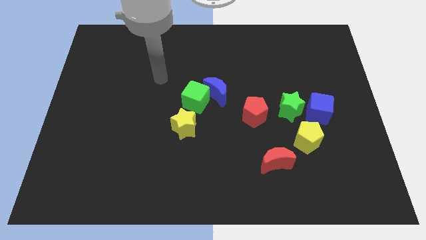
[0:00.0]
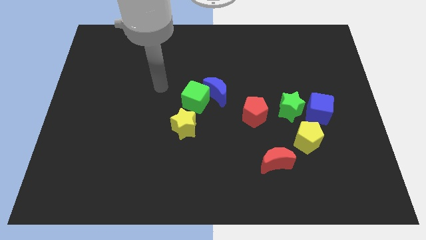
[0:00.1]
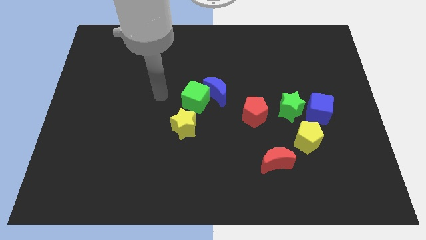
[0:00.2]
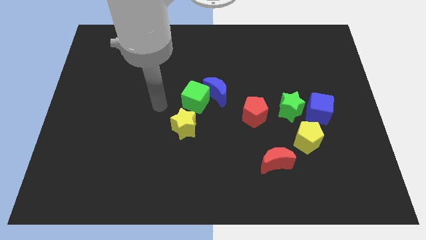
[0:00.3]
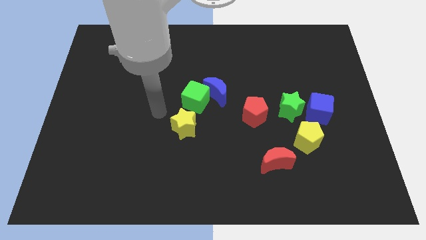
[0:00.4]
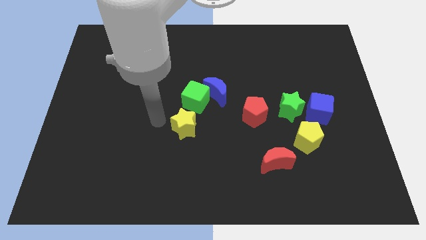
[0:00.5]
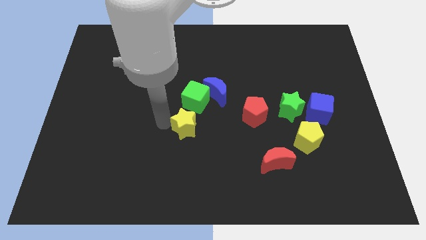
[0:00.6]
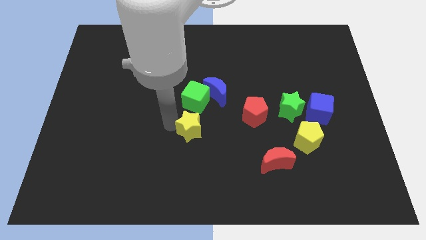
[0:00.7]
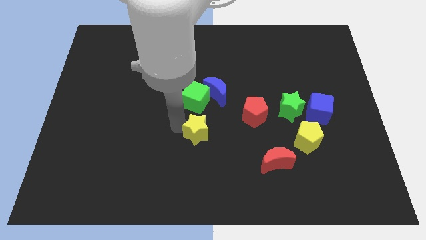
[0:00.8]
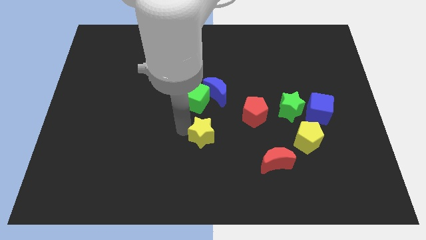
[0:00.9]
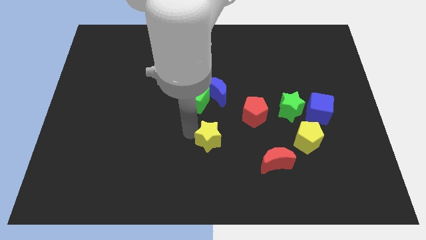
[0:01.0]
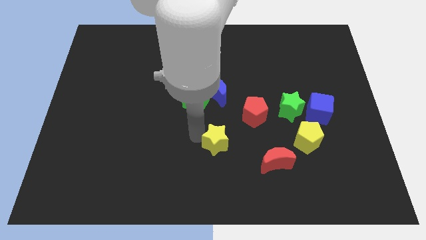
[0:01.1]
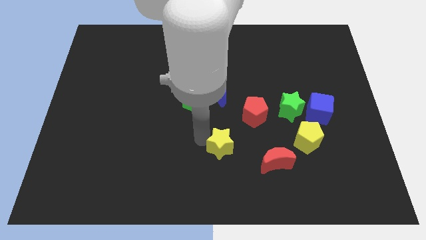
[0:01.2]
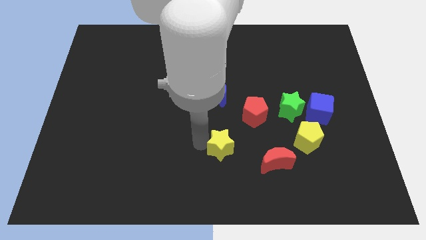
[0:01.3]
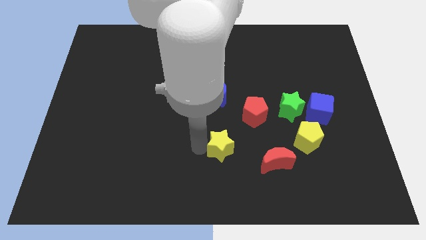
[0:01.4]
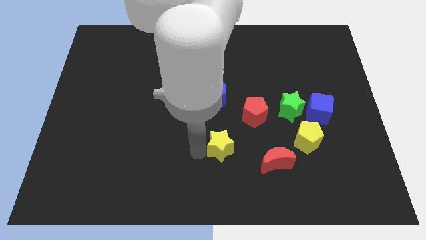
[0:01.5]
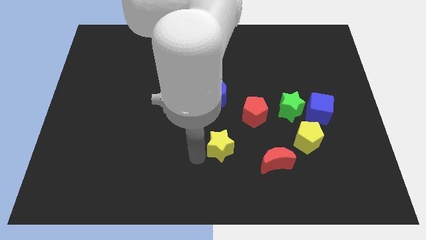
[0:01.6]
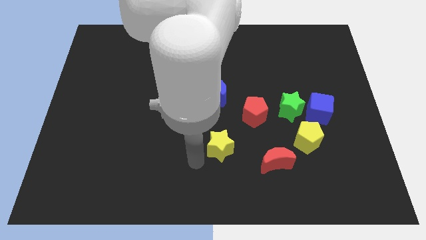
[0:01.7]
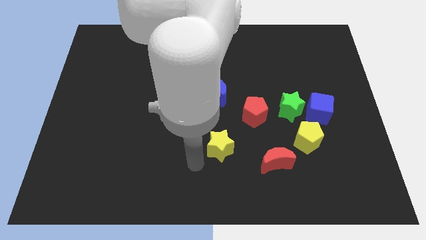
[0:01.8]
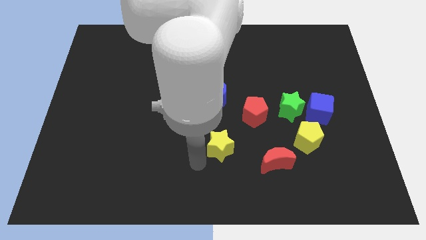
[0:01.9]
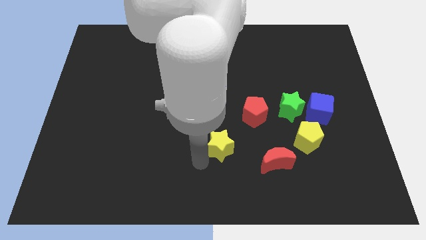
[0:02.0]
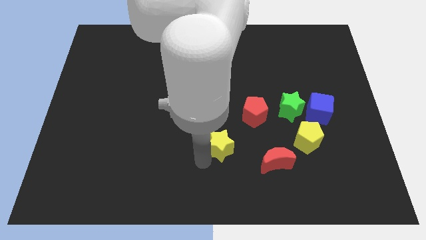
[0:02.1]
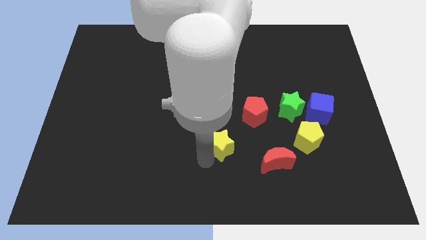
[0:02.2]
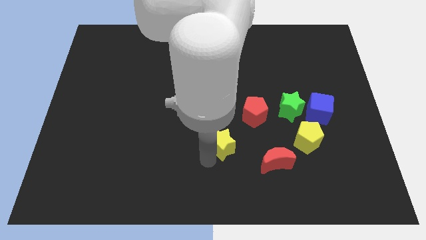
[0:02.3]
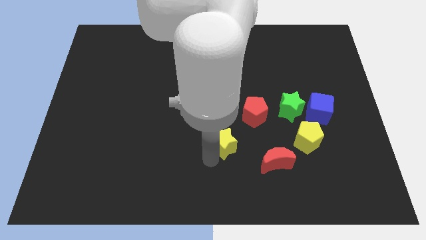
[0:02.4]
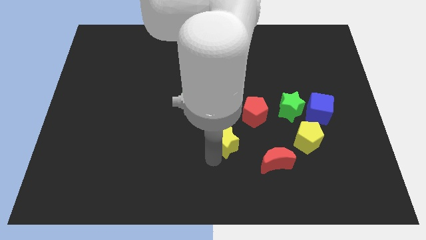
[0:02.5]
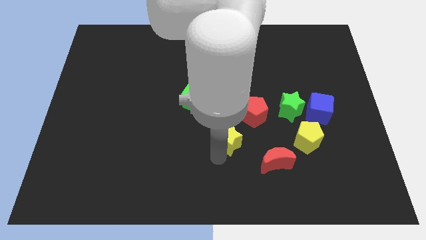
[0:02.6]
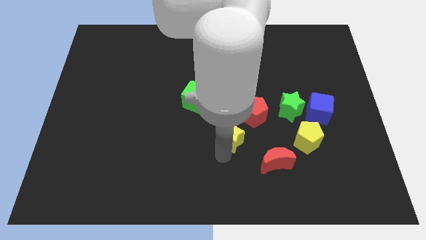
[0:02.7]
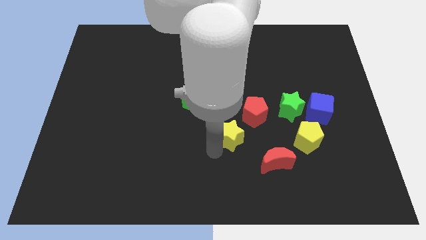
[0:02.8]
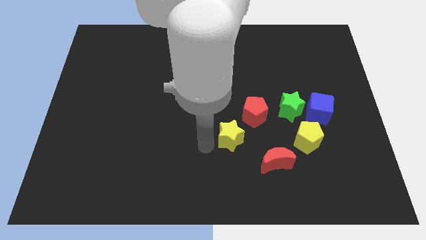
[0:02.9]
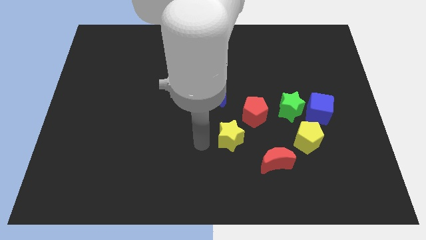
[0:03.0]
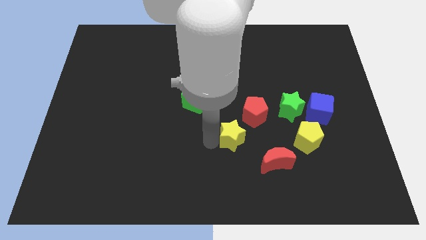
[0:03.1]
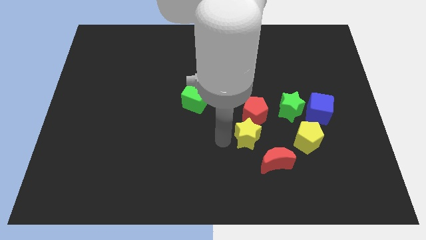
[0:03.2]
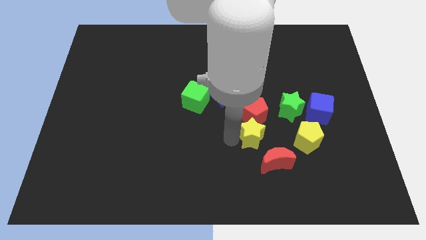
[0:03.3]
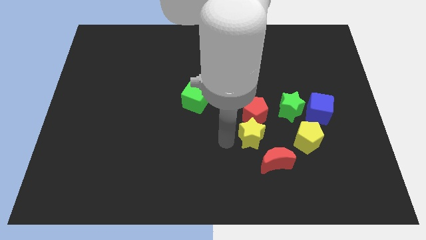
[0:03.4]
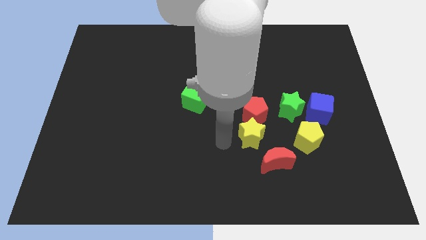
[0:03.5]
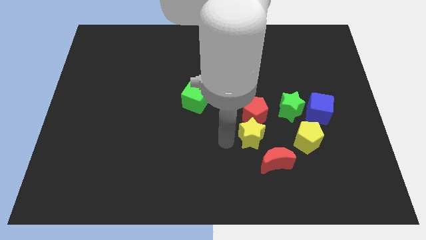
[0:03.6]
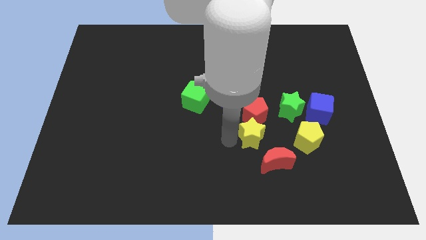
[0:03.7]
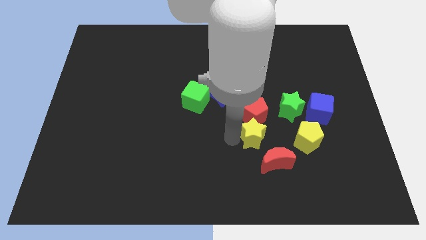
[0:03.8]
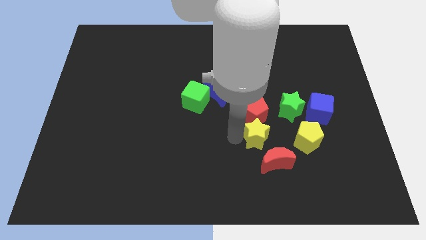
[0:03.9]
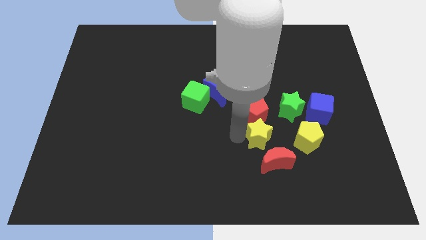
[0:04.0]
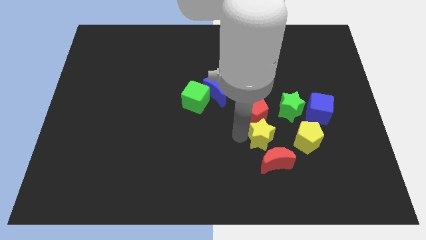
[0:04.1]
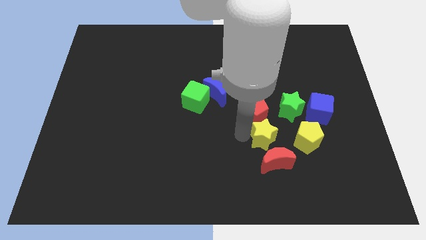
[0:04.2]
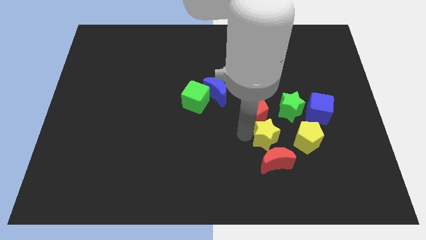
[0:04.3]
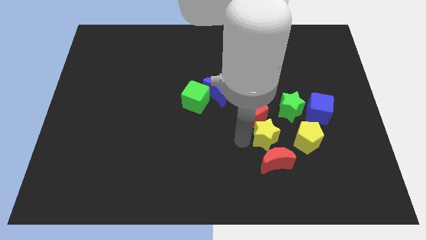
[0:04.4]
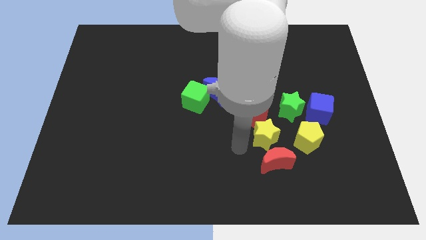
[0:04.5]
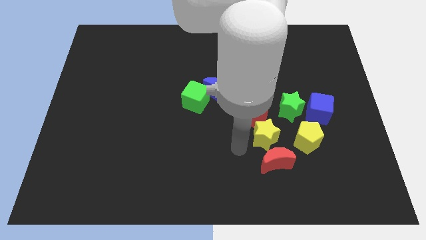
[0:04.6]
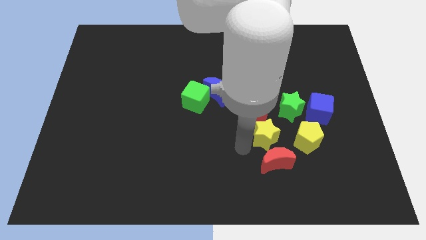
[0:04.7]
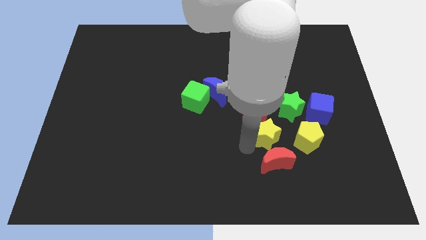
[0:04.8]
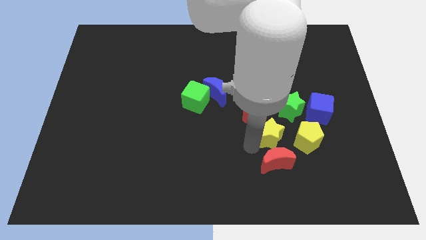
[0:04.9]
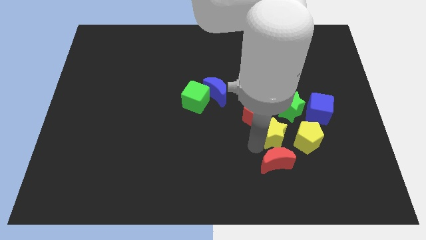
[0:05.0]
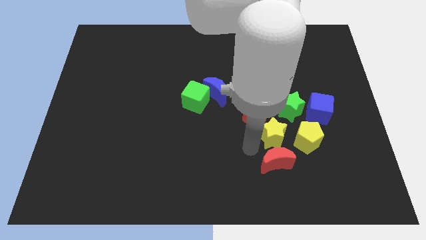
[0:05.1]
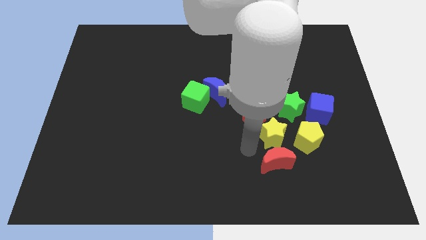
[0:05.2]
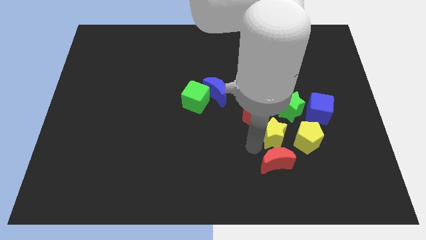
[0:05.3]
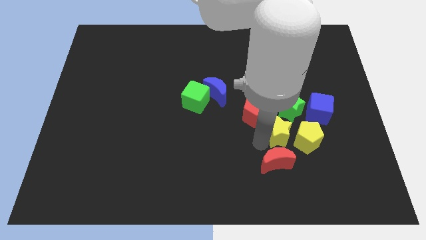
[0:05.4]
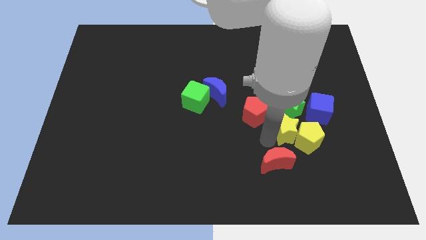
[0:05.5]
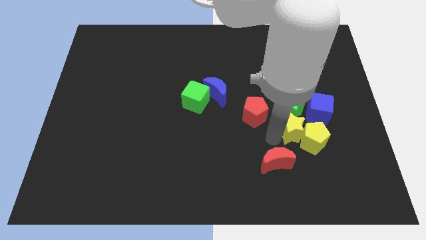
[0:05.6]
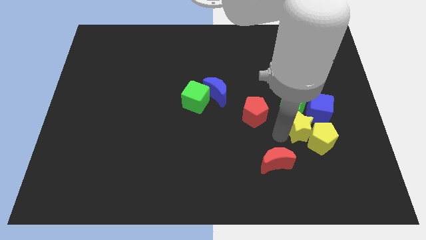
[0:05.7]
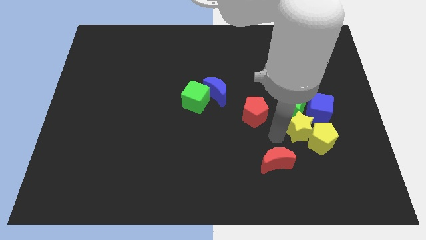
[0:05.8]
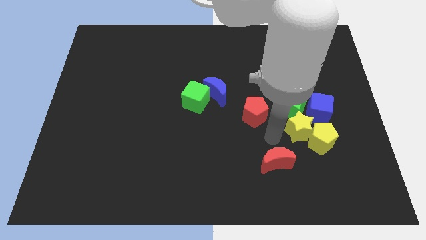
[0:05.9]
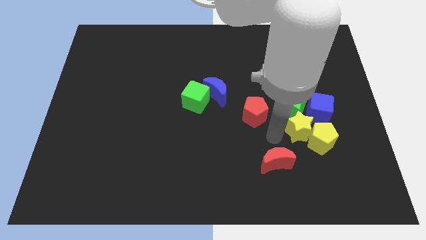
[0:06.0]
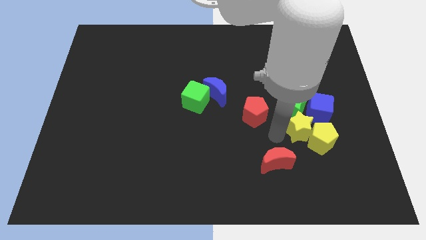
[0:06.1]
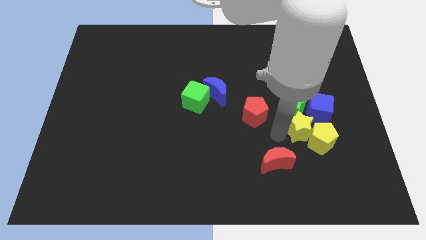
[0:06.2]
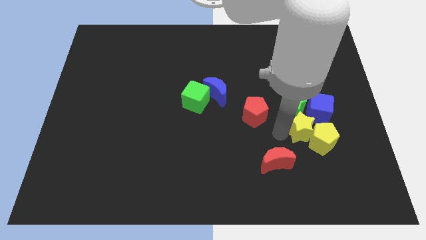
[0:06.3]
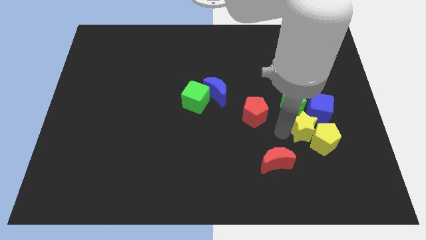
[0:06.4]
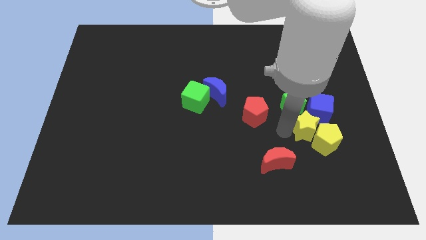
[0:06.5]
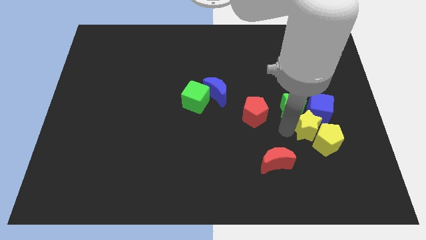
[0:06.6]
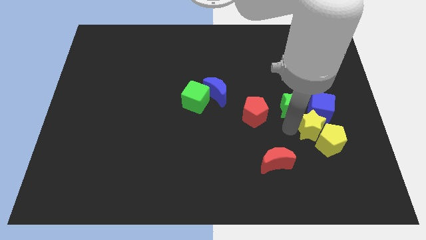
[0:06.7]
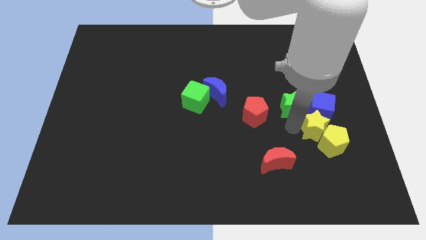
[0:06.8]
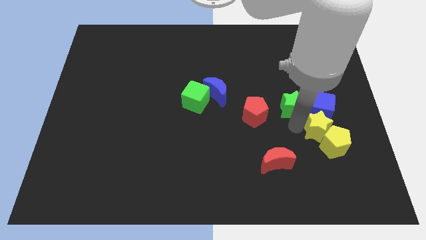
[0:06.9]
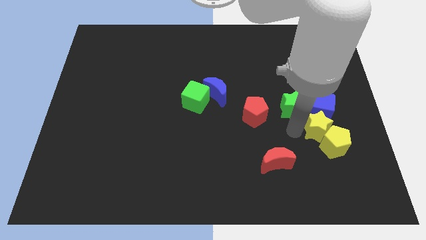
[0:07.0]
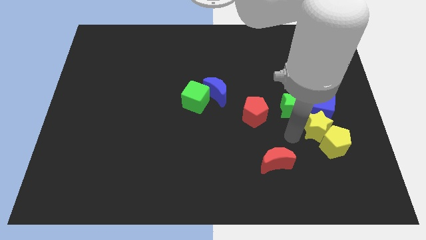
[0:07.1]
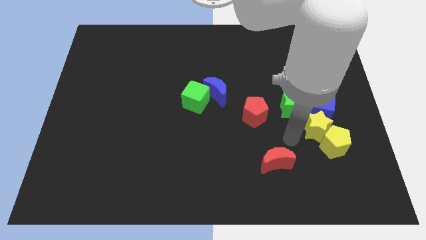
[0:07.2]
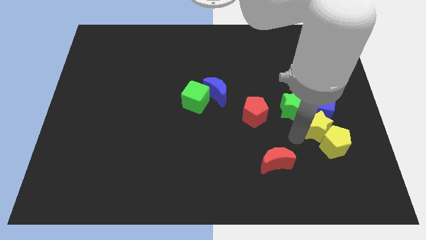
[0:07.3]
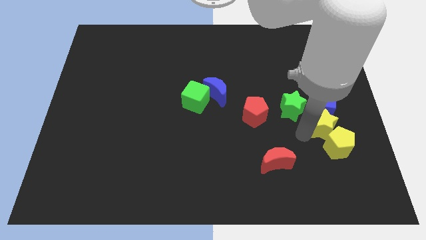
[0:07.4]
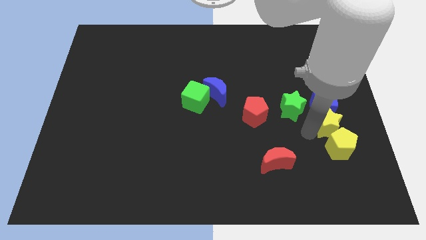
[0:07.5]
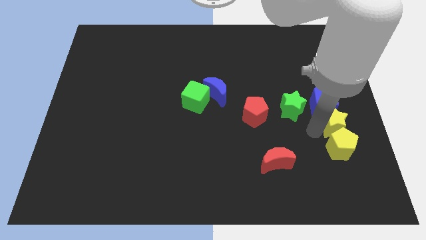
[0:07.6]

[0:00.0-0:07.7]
put the yellow star to the right side of the board
